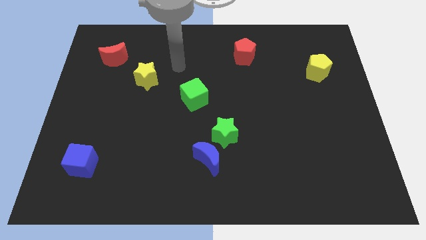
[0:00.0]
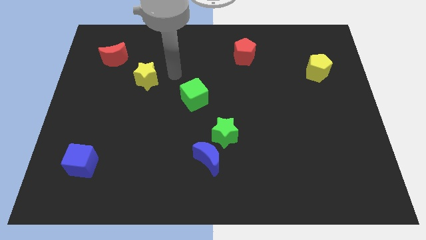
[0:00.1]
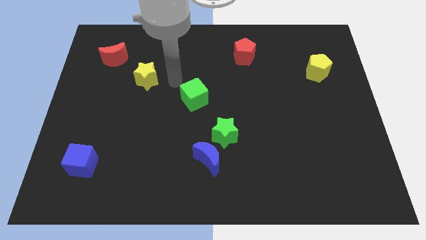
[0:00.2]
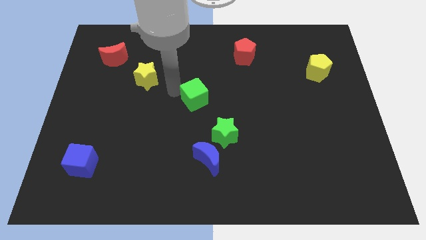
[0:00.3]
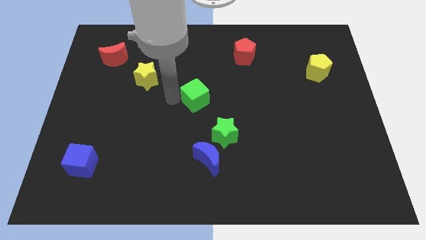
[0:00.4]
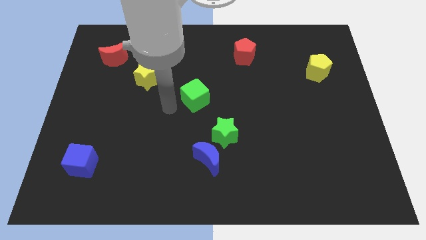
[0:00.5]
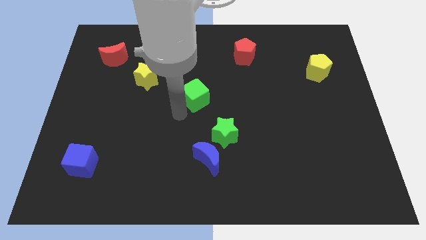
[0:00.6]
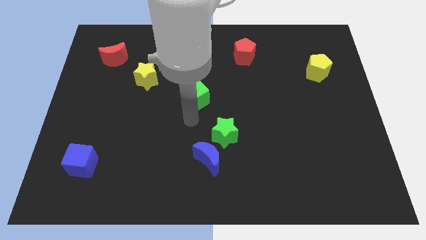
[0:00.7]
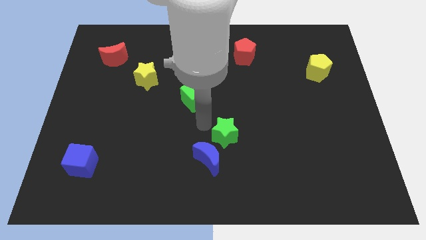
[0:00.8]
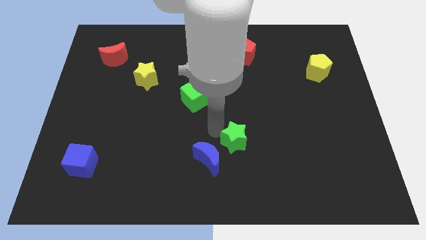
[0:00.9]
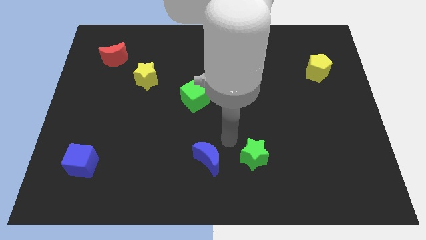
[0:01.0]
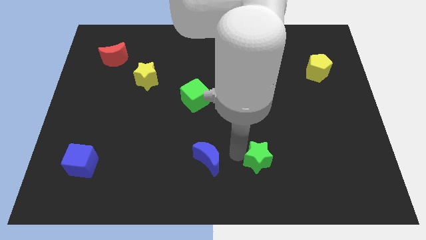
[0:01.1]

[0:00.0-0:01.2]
separate the blue moon from the green star

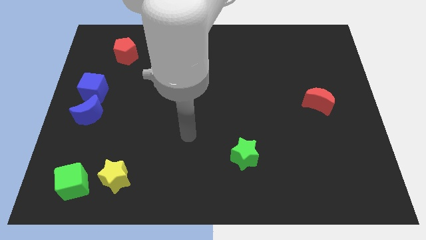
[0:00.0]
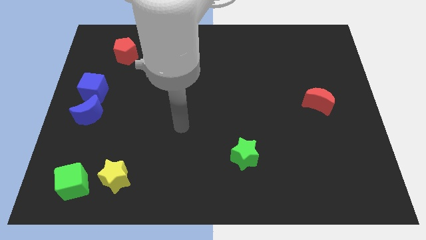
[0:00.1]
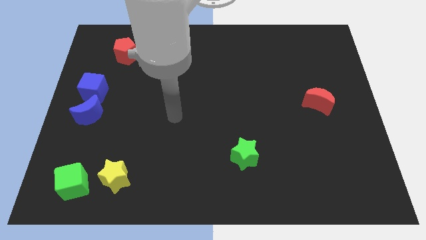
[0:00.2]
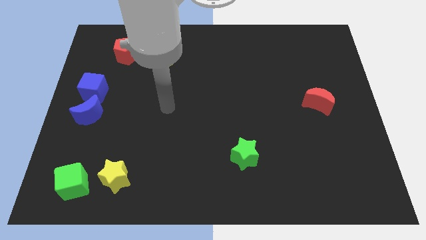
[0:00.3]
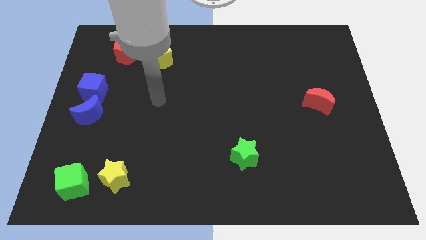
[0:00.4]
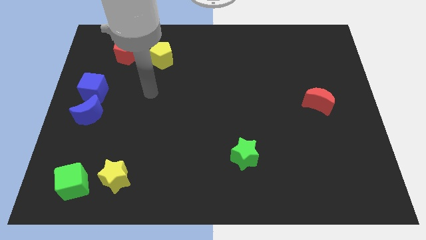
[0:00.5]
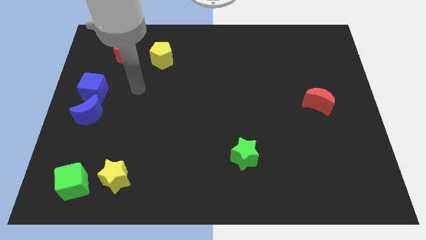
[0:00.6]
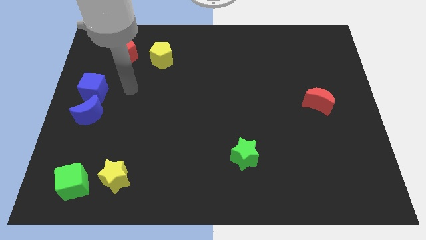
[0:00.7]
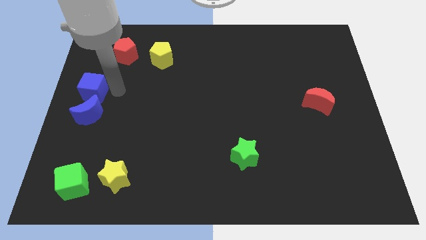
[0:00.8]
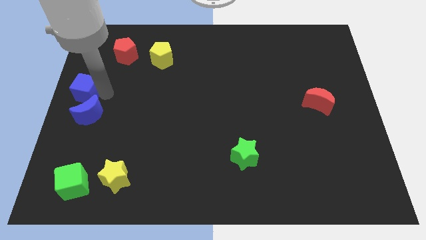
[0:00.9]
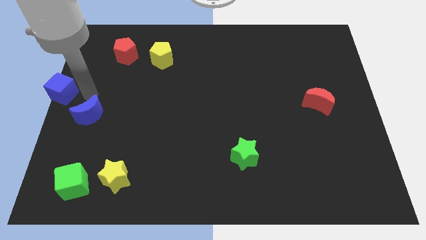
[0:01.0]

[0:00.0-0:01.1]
pull the blue moon apart from the blue cube

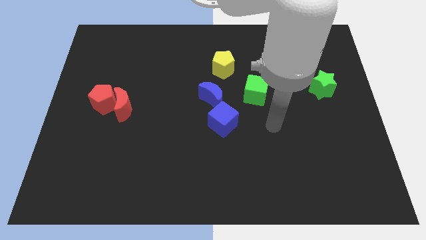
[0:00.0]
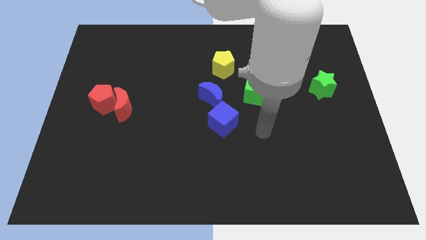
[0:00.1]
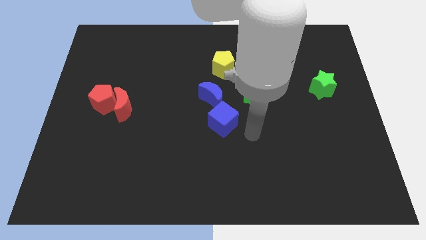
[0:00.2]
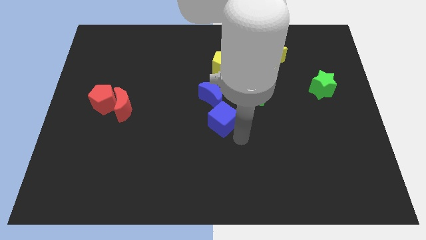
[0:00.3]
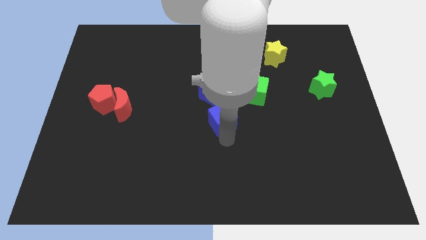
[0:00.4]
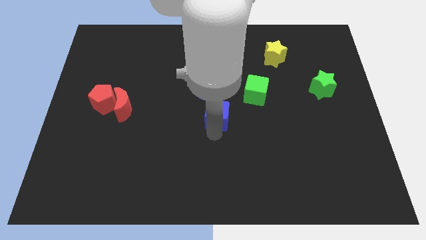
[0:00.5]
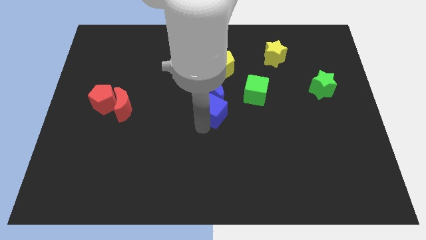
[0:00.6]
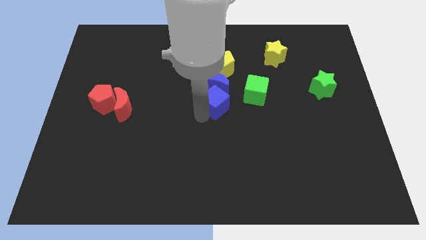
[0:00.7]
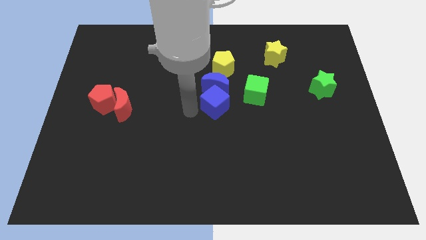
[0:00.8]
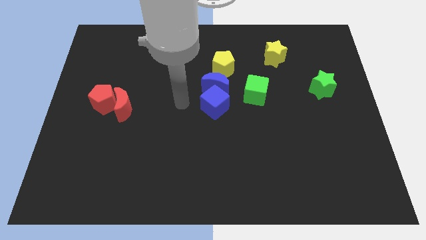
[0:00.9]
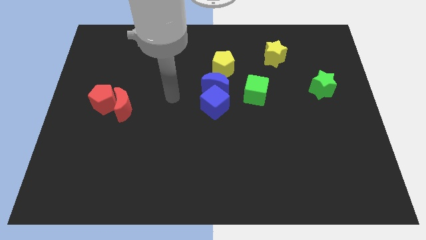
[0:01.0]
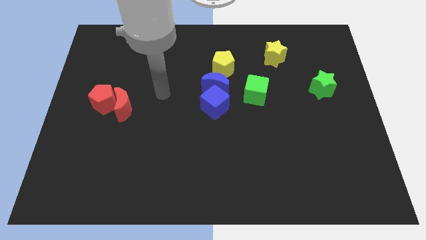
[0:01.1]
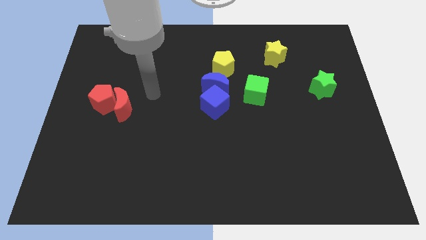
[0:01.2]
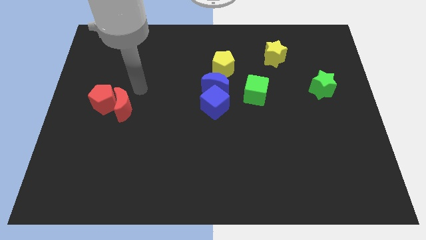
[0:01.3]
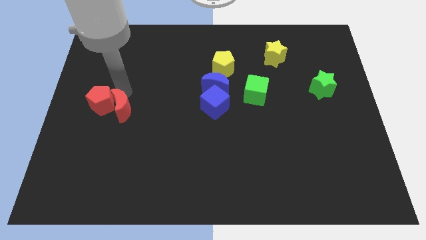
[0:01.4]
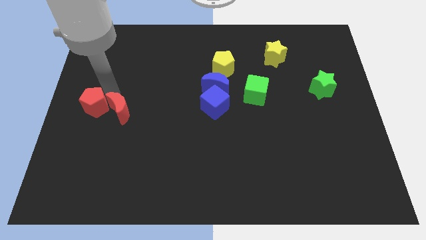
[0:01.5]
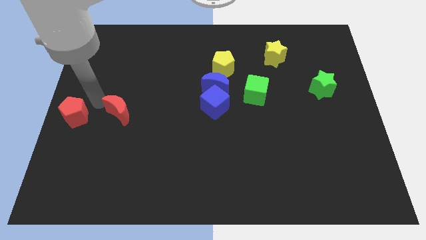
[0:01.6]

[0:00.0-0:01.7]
pull the red moon apart from the red pentagon

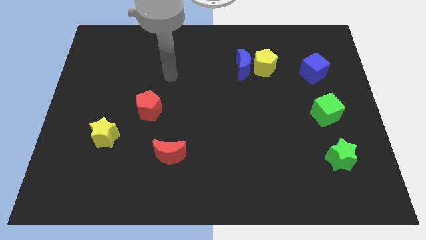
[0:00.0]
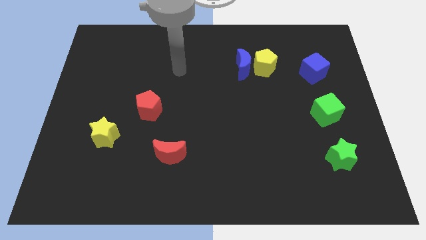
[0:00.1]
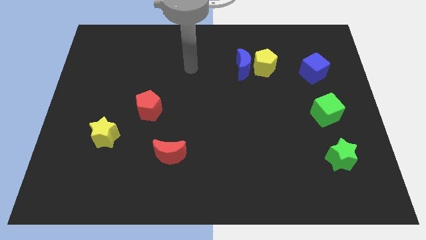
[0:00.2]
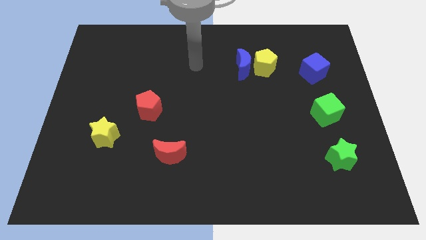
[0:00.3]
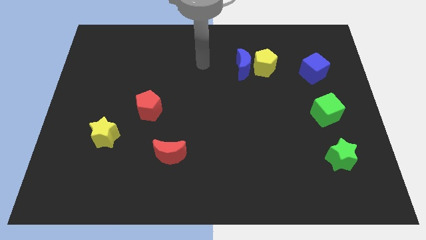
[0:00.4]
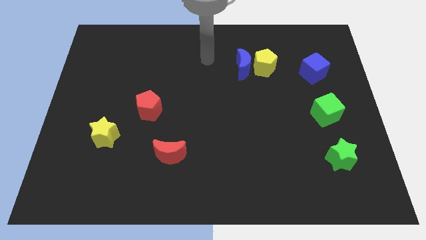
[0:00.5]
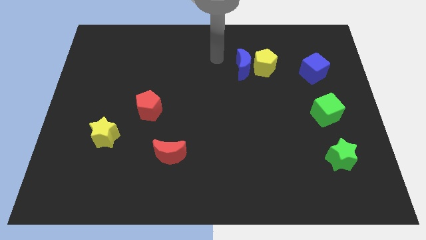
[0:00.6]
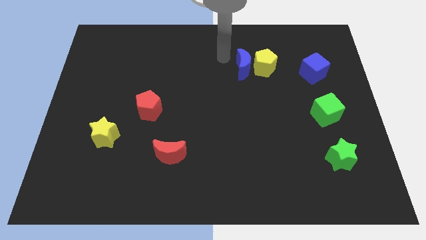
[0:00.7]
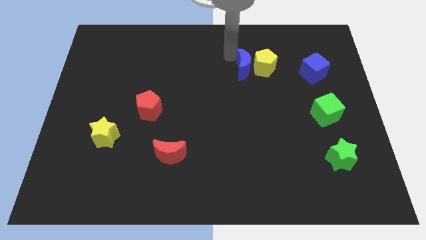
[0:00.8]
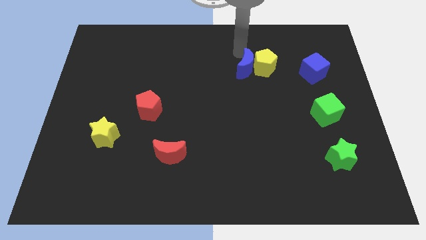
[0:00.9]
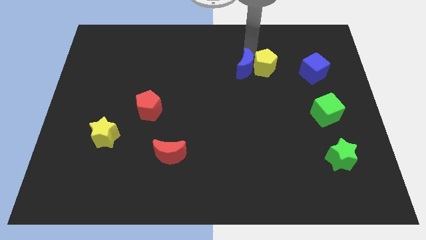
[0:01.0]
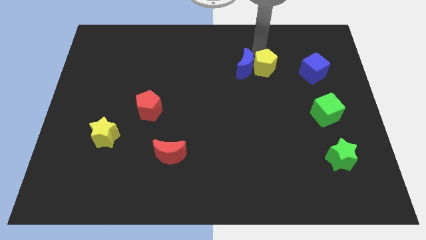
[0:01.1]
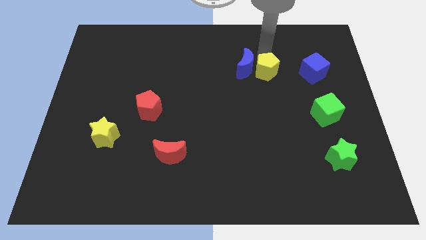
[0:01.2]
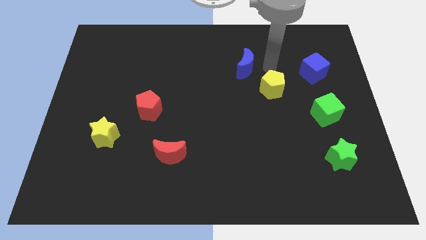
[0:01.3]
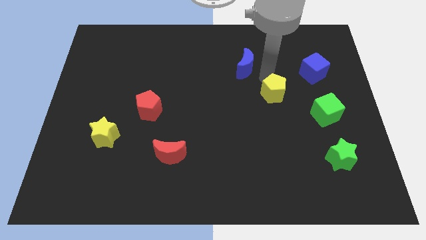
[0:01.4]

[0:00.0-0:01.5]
pull the blue moon apart from the yellow pentagon

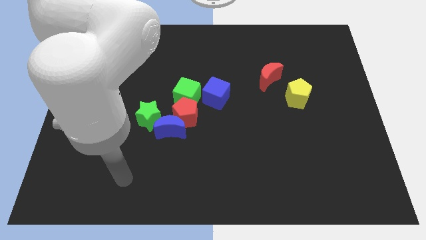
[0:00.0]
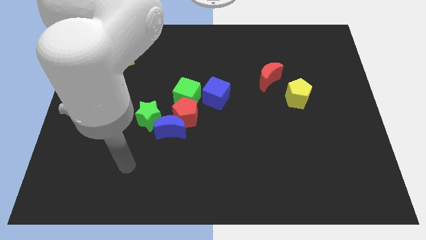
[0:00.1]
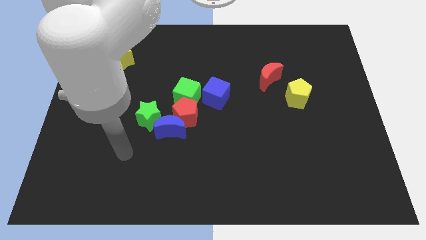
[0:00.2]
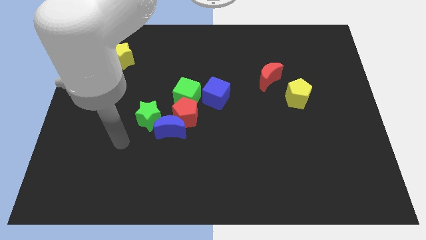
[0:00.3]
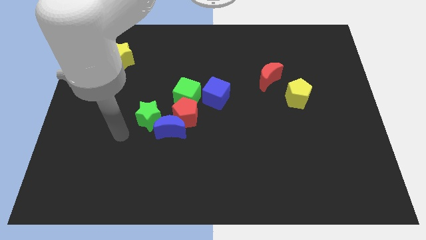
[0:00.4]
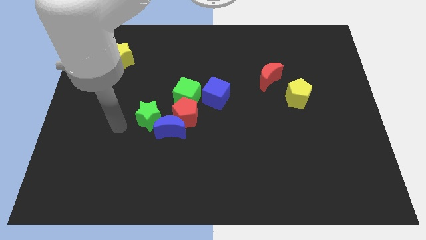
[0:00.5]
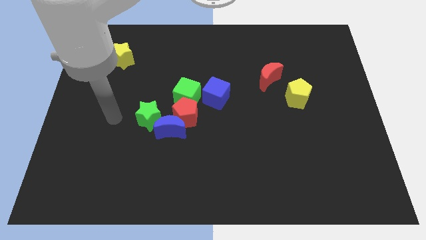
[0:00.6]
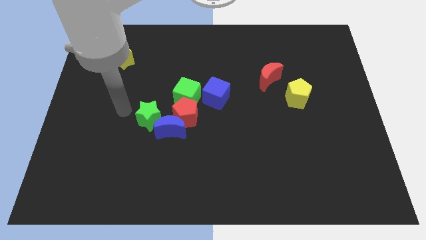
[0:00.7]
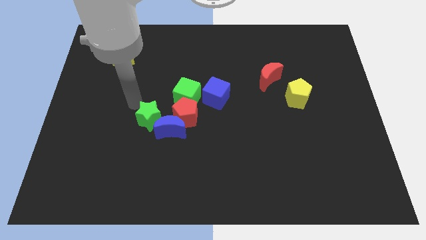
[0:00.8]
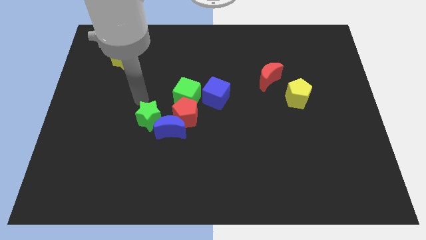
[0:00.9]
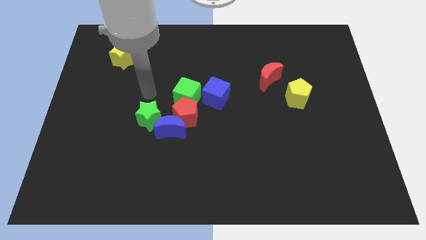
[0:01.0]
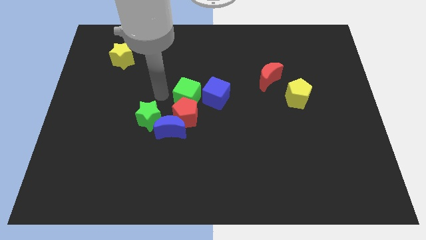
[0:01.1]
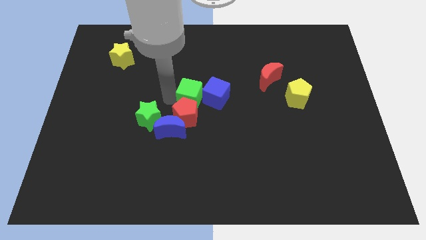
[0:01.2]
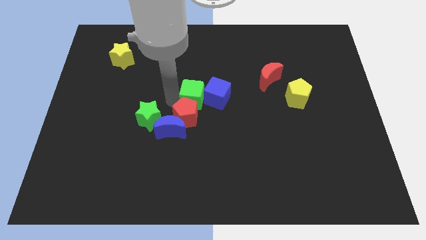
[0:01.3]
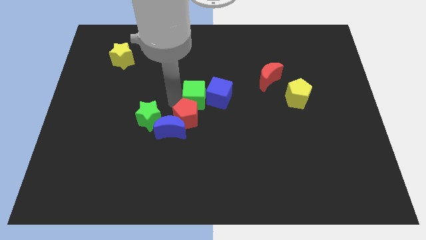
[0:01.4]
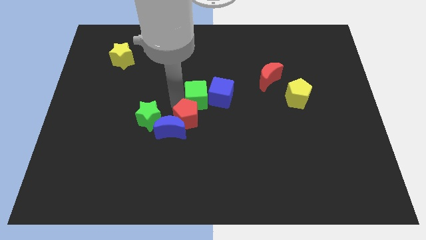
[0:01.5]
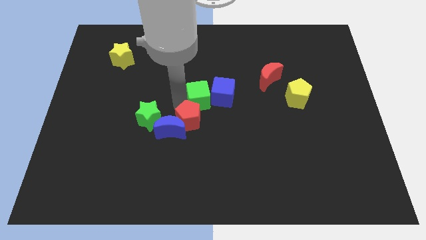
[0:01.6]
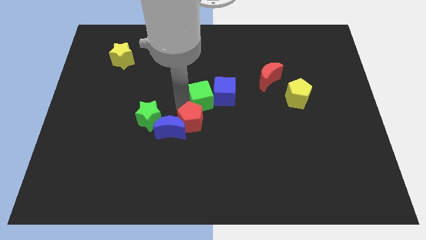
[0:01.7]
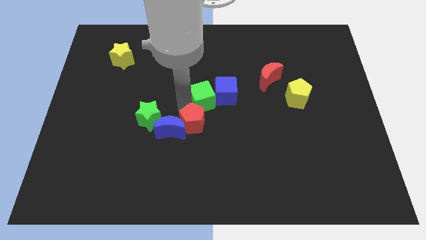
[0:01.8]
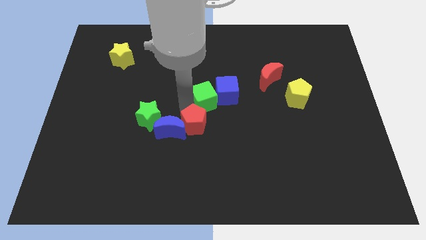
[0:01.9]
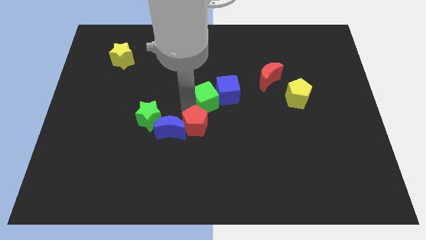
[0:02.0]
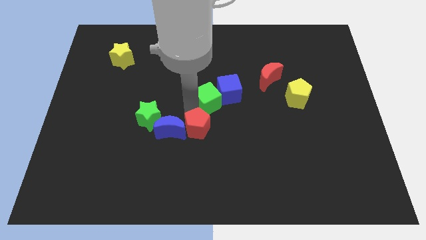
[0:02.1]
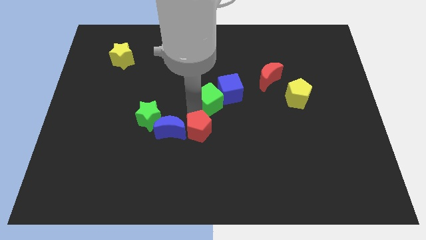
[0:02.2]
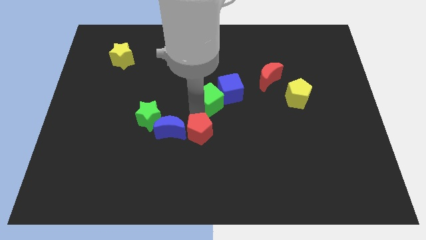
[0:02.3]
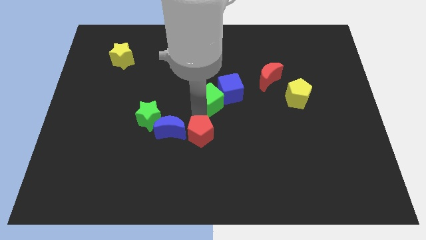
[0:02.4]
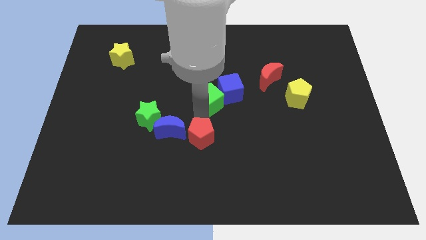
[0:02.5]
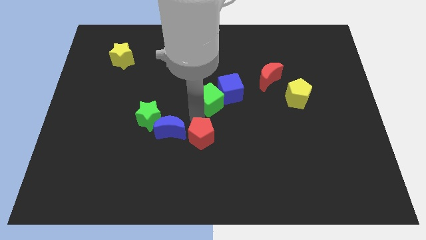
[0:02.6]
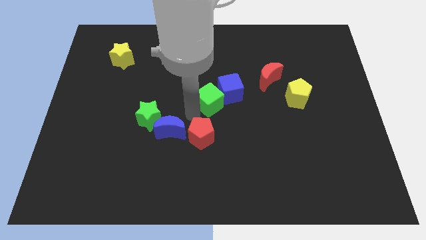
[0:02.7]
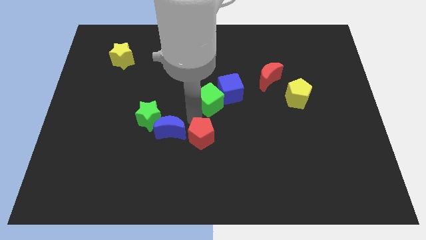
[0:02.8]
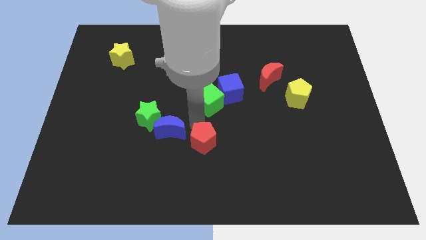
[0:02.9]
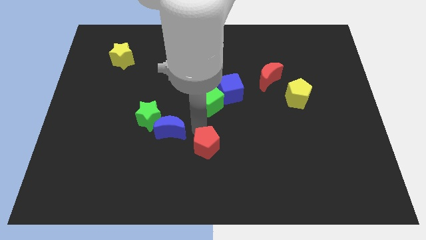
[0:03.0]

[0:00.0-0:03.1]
move the red pentagon away from the clump

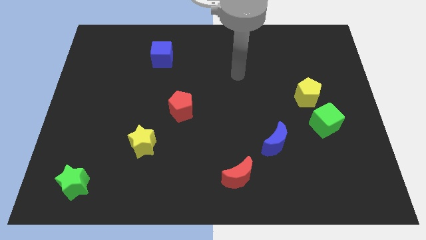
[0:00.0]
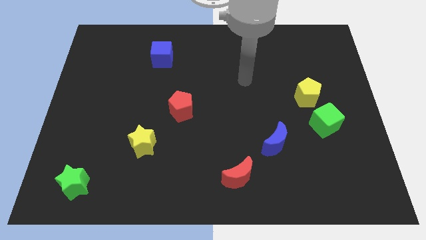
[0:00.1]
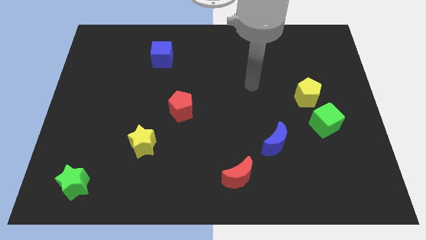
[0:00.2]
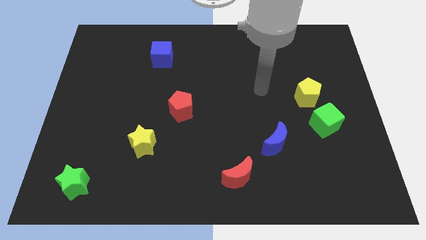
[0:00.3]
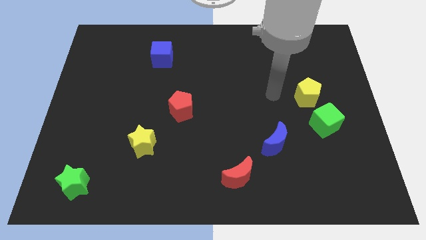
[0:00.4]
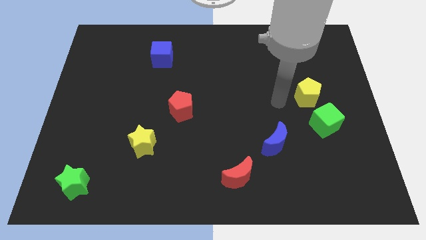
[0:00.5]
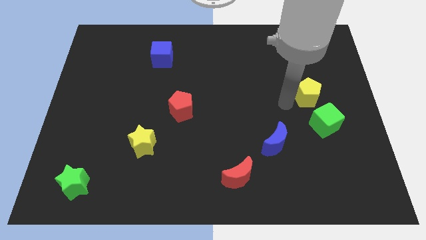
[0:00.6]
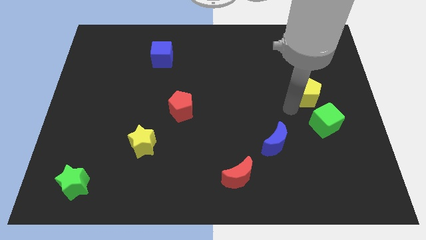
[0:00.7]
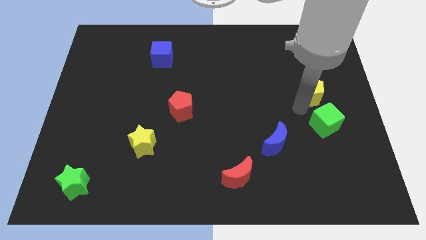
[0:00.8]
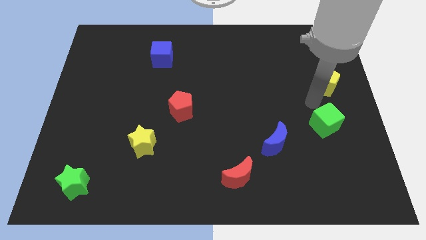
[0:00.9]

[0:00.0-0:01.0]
pull the green cube apart from the yellow pentagon
